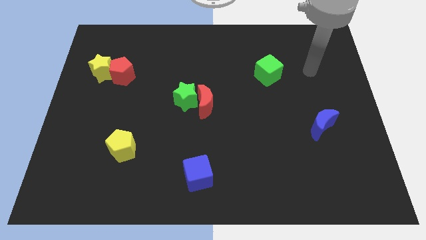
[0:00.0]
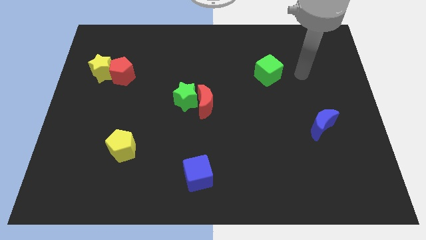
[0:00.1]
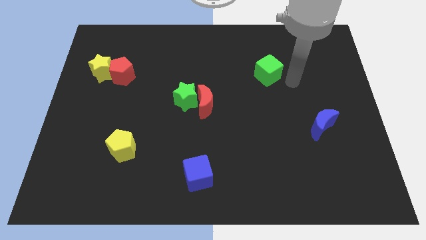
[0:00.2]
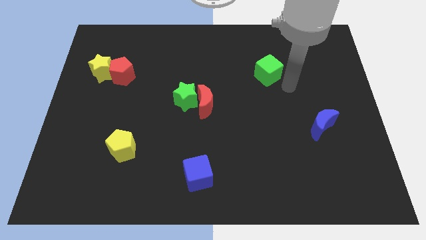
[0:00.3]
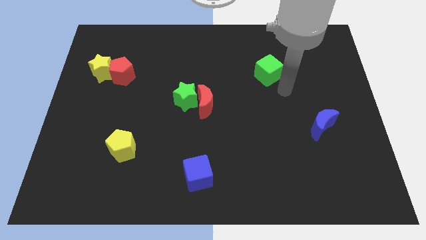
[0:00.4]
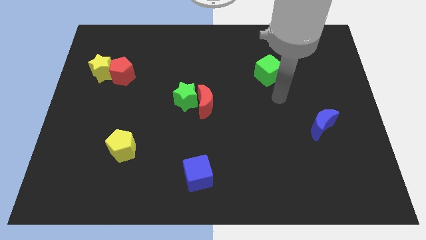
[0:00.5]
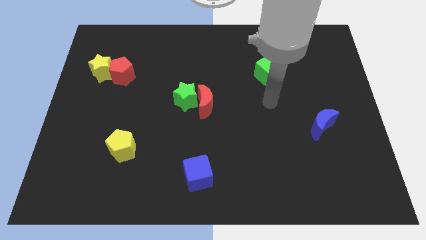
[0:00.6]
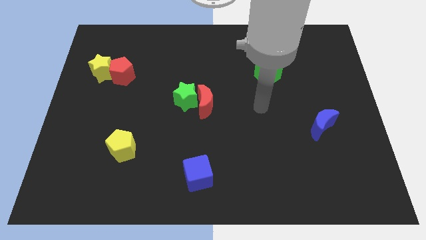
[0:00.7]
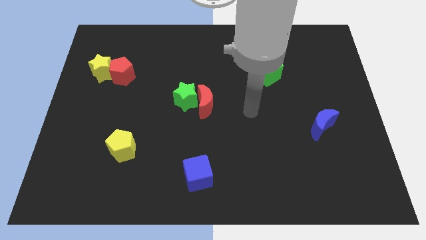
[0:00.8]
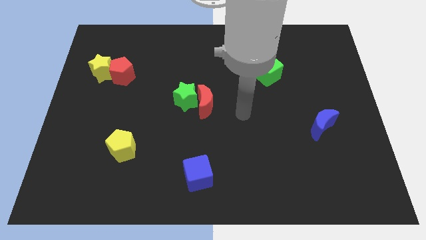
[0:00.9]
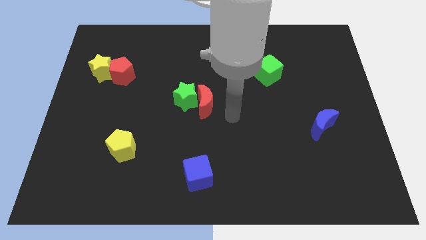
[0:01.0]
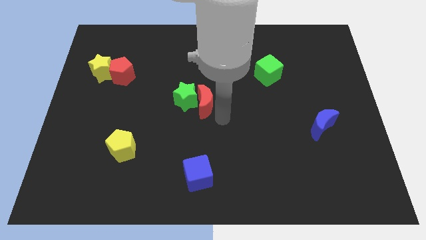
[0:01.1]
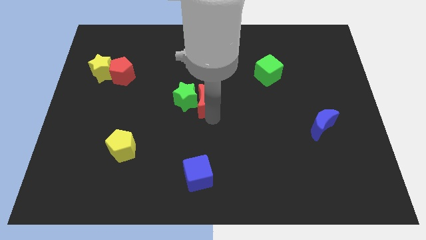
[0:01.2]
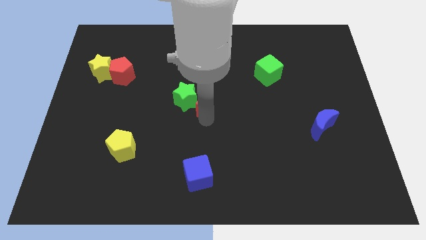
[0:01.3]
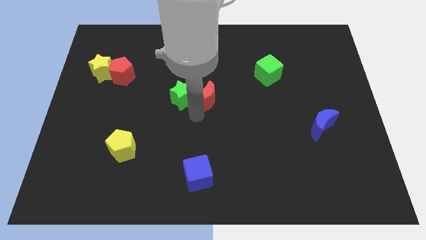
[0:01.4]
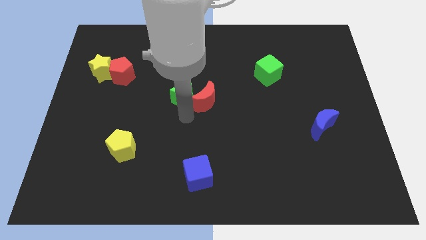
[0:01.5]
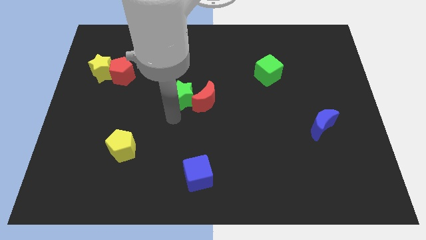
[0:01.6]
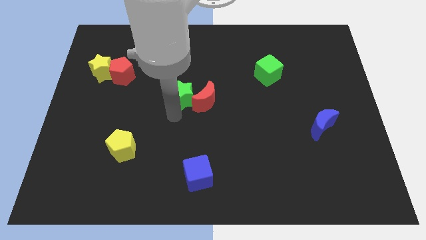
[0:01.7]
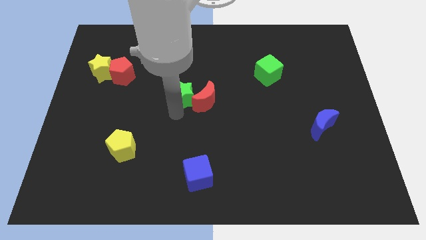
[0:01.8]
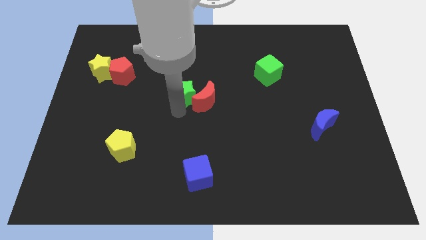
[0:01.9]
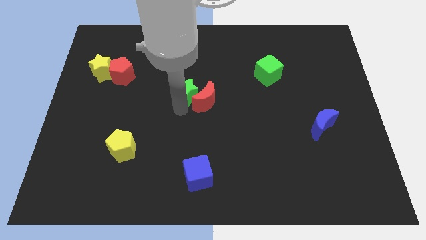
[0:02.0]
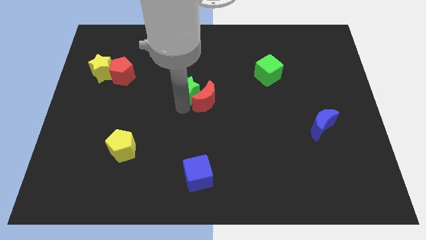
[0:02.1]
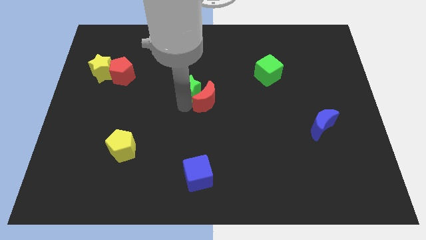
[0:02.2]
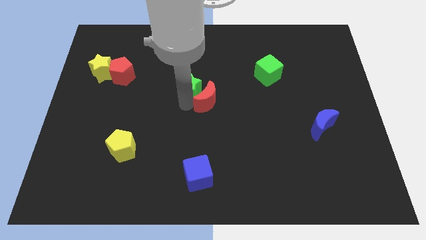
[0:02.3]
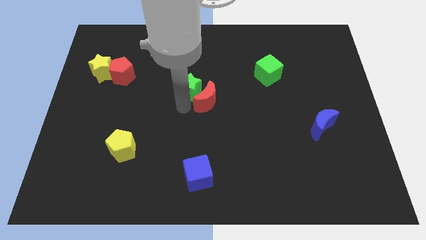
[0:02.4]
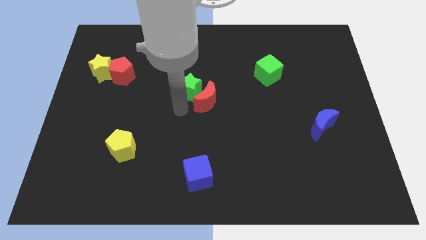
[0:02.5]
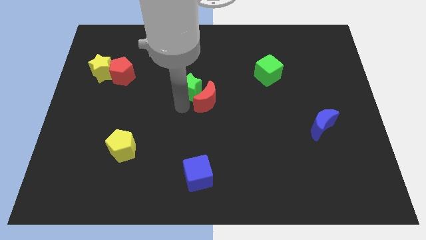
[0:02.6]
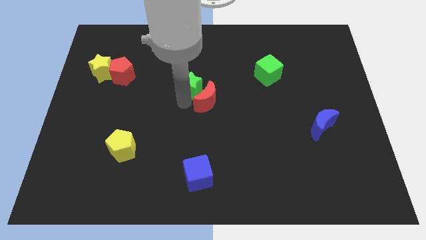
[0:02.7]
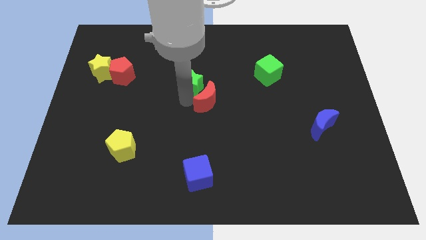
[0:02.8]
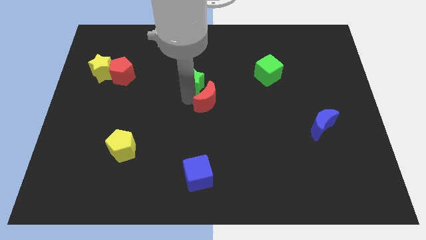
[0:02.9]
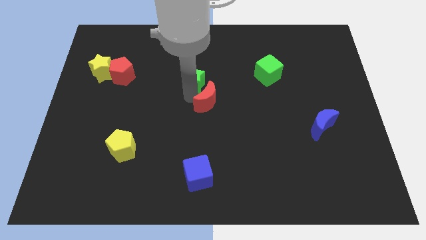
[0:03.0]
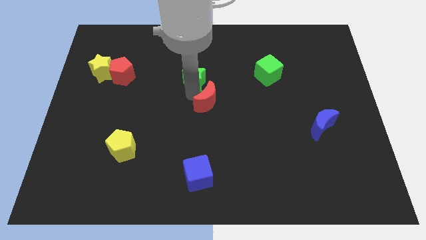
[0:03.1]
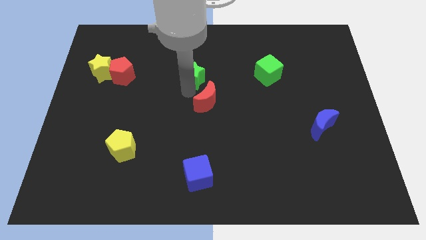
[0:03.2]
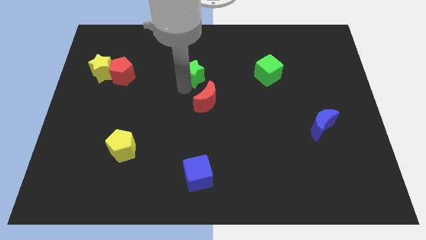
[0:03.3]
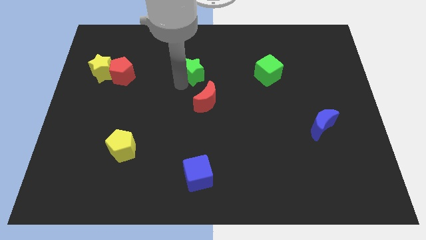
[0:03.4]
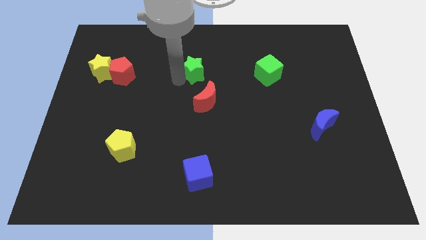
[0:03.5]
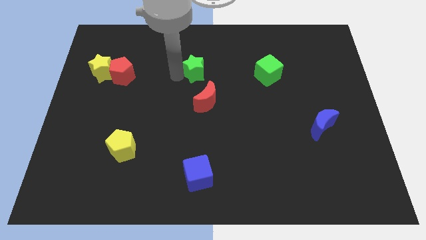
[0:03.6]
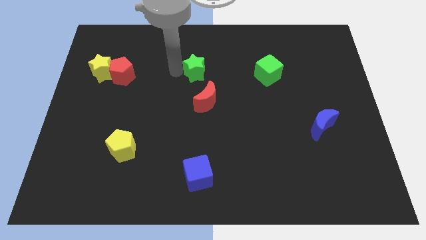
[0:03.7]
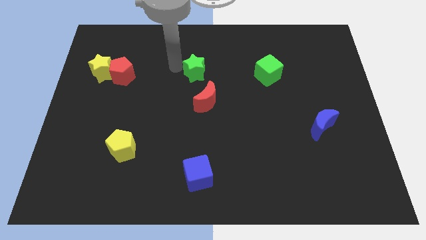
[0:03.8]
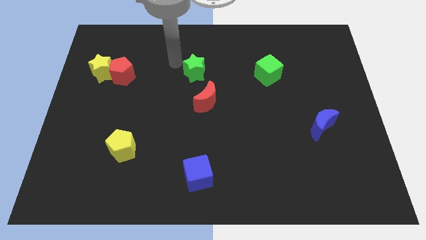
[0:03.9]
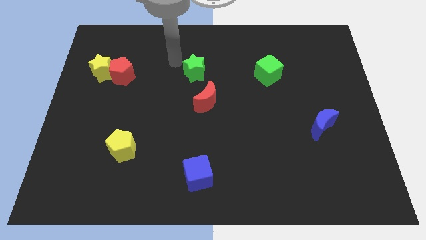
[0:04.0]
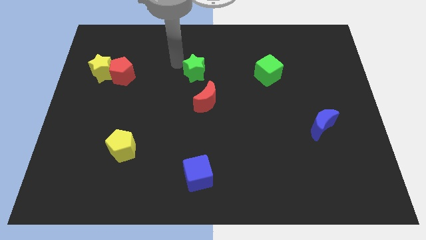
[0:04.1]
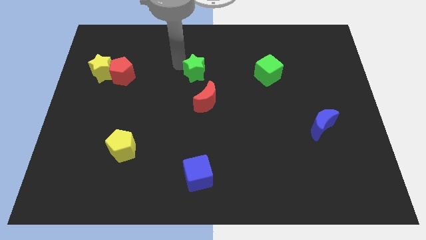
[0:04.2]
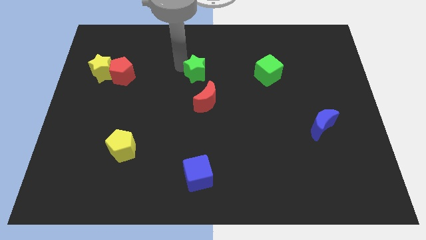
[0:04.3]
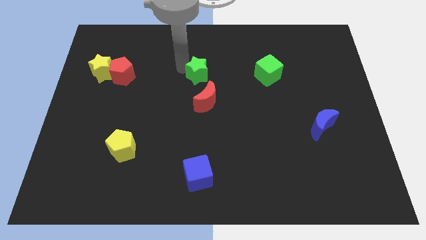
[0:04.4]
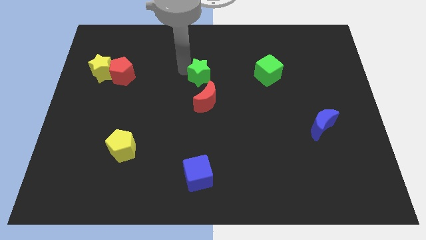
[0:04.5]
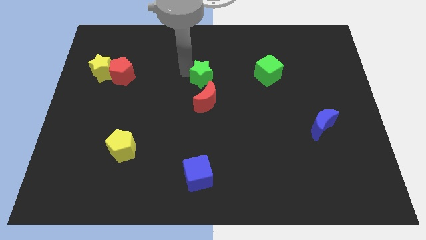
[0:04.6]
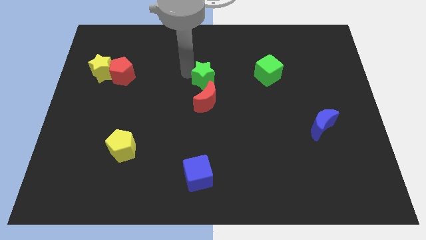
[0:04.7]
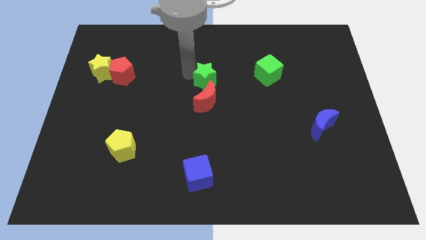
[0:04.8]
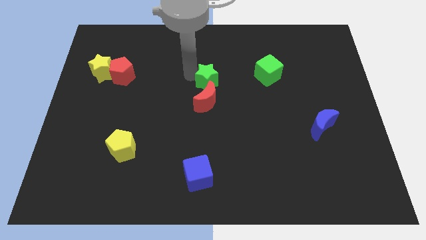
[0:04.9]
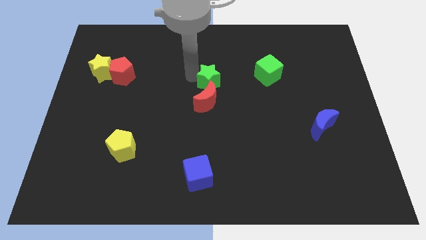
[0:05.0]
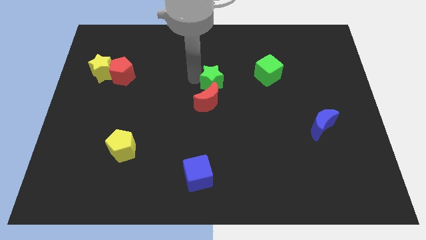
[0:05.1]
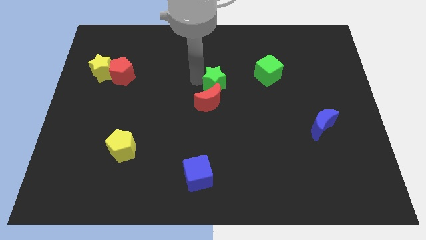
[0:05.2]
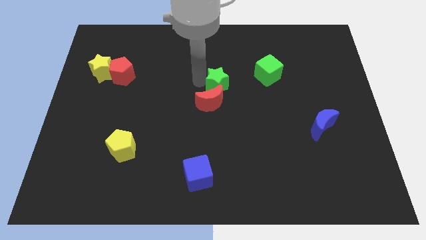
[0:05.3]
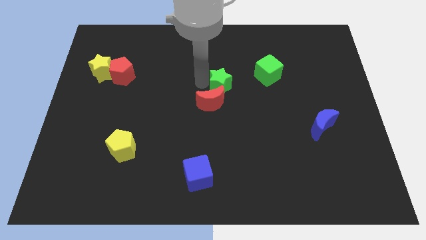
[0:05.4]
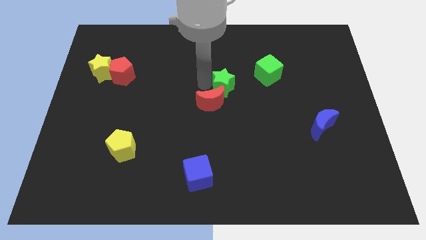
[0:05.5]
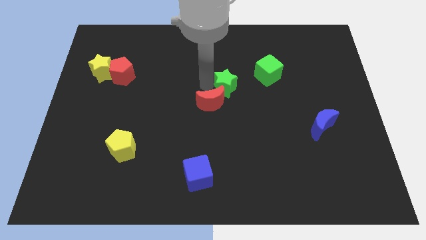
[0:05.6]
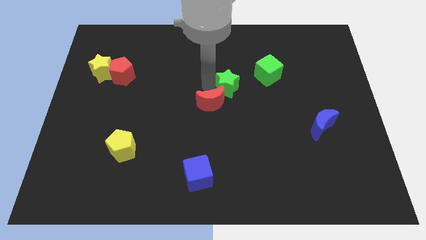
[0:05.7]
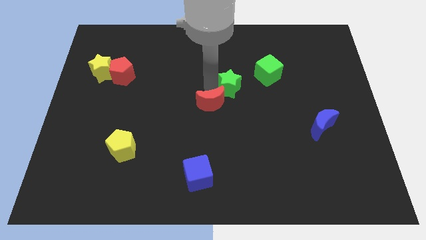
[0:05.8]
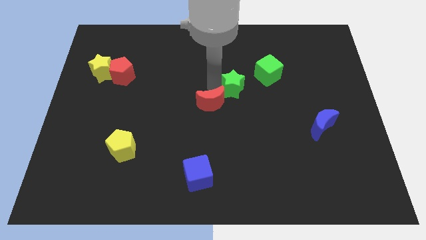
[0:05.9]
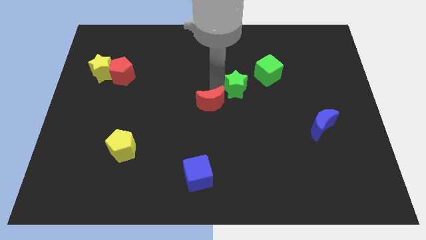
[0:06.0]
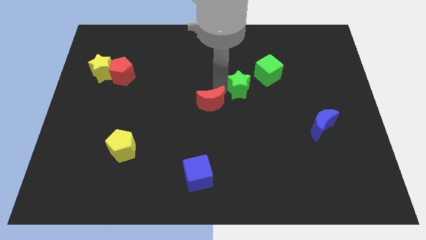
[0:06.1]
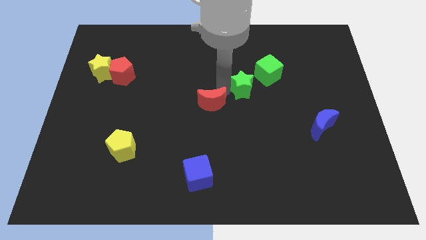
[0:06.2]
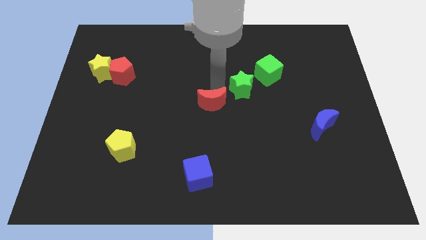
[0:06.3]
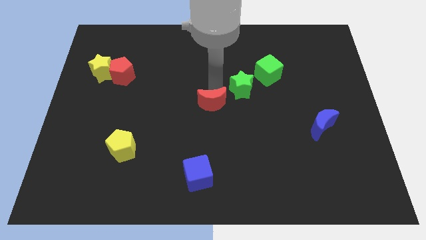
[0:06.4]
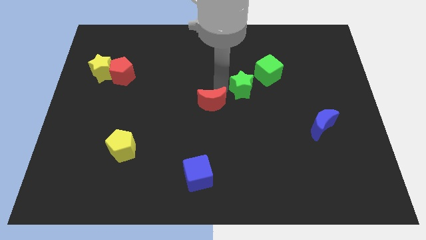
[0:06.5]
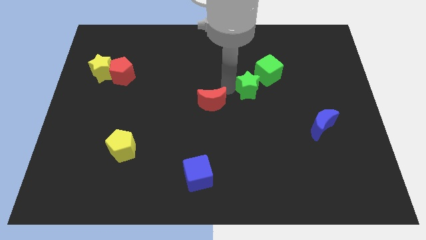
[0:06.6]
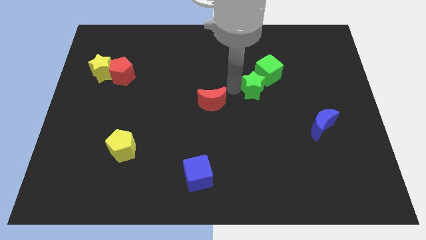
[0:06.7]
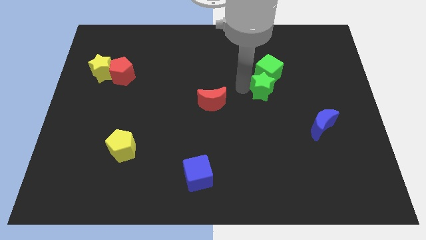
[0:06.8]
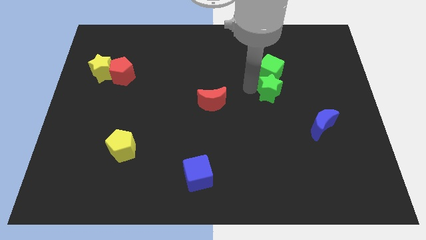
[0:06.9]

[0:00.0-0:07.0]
move the green star to the right

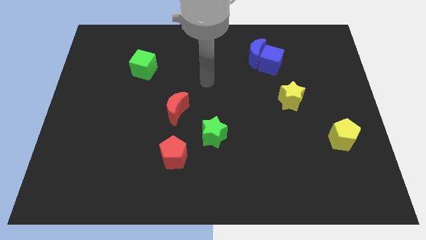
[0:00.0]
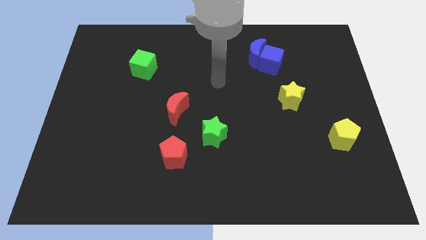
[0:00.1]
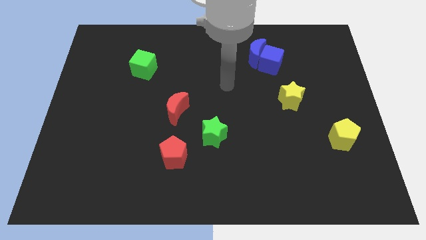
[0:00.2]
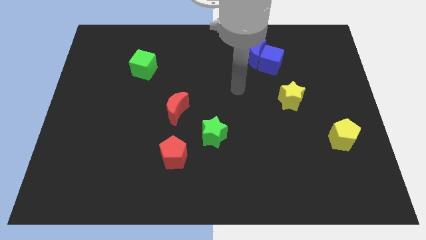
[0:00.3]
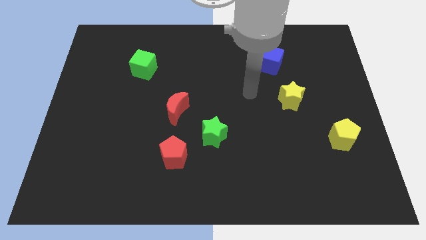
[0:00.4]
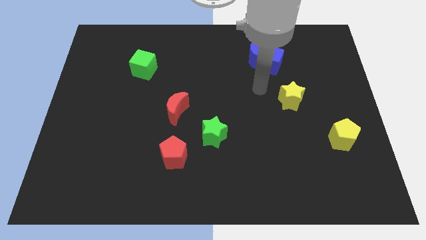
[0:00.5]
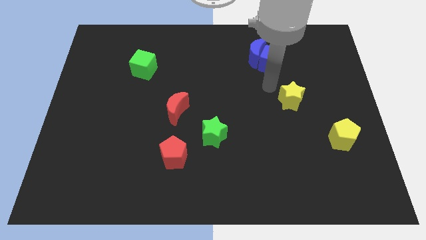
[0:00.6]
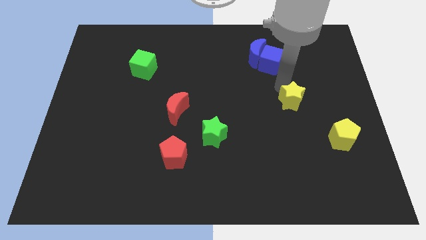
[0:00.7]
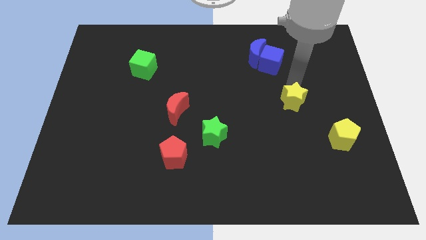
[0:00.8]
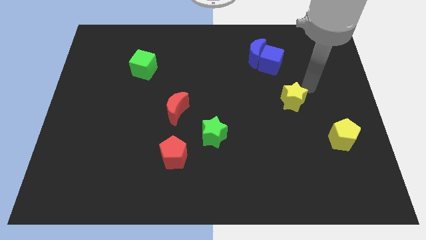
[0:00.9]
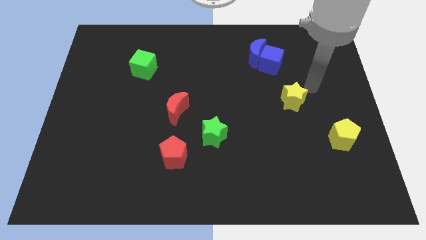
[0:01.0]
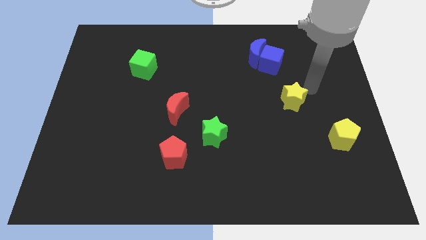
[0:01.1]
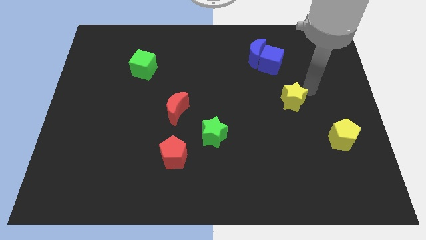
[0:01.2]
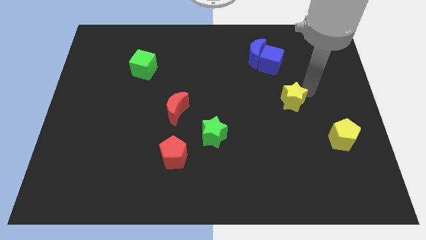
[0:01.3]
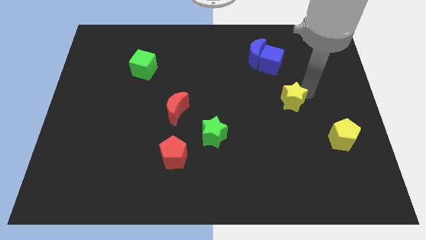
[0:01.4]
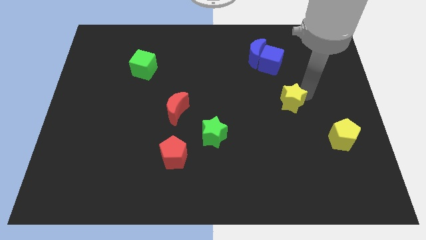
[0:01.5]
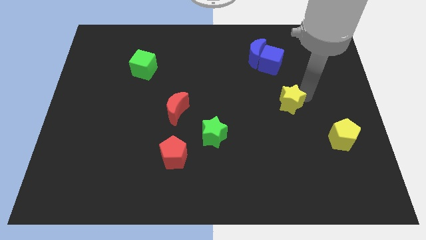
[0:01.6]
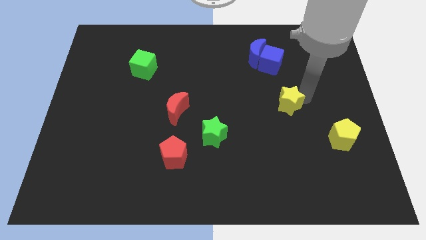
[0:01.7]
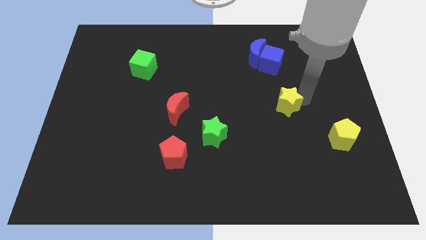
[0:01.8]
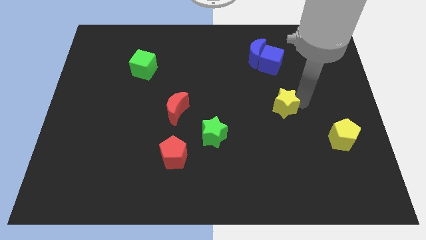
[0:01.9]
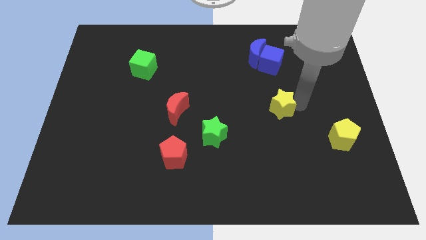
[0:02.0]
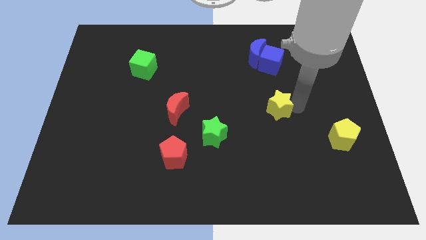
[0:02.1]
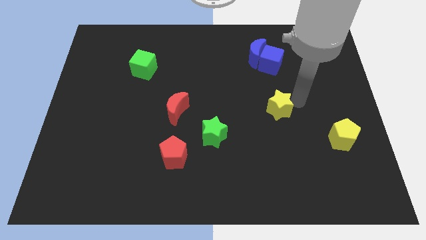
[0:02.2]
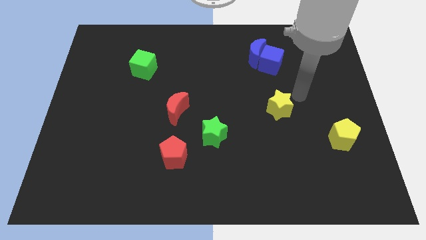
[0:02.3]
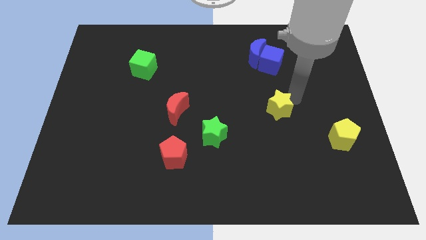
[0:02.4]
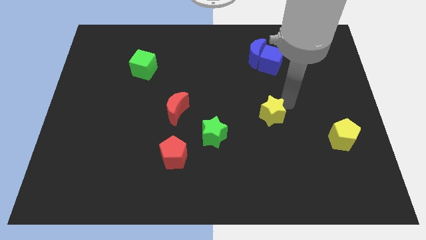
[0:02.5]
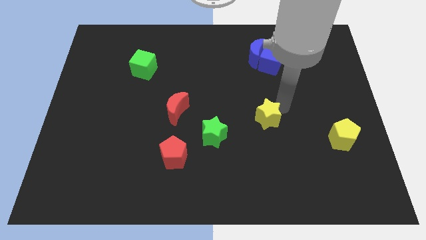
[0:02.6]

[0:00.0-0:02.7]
slide the yellow star a little bit downwards and left
